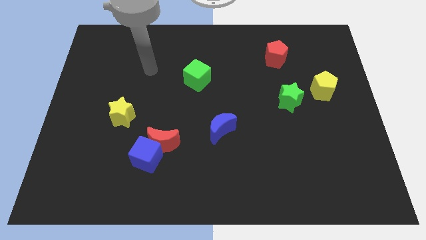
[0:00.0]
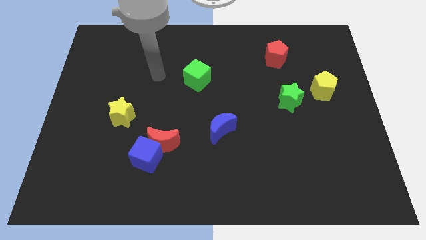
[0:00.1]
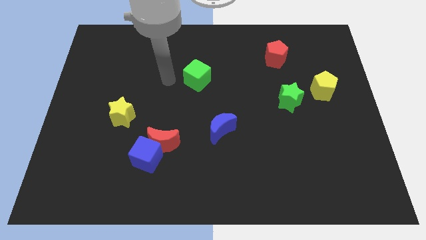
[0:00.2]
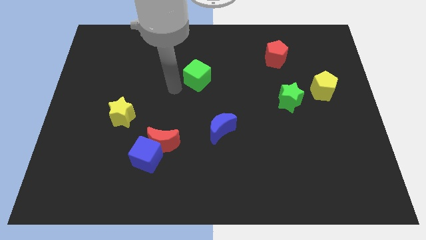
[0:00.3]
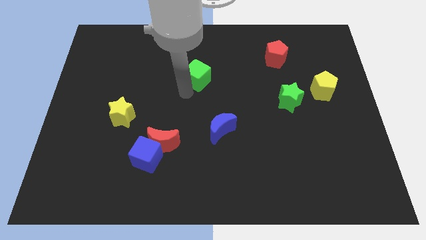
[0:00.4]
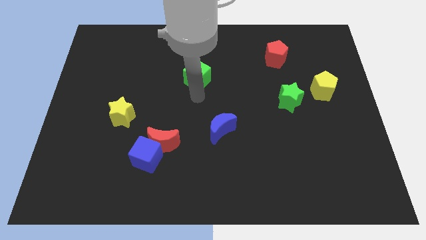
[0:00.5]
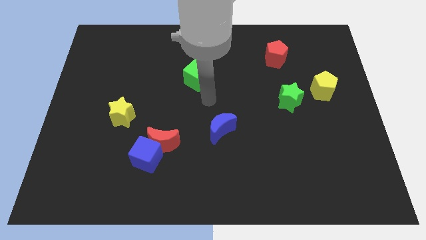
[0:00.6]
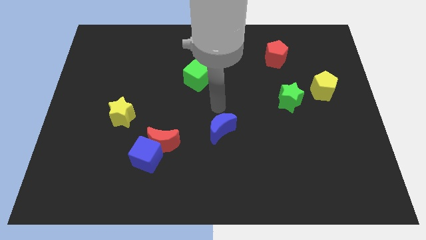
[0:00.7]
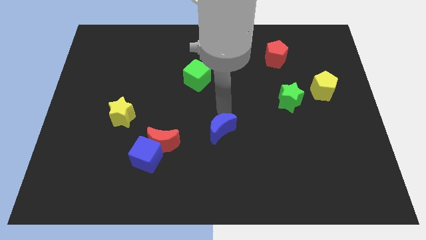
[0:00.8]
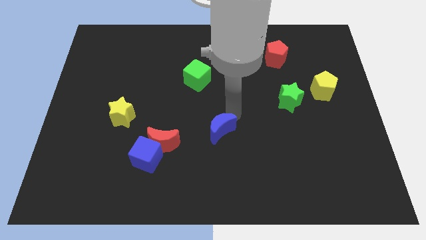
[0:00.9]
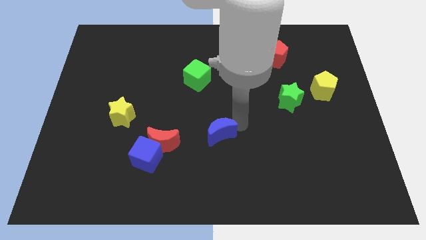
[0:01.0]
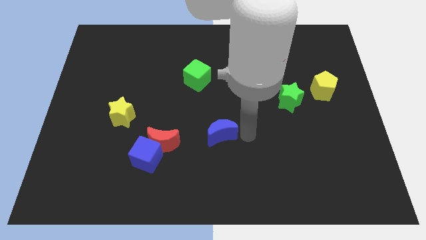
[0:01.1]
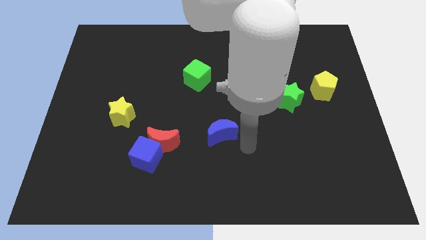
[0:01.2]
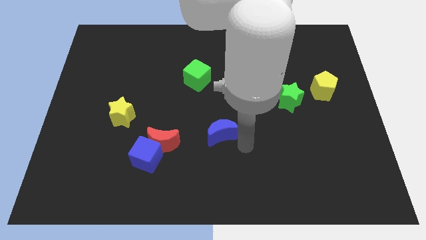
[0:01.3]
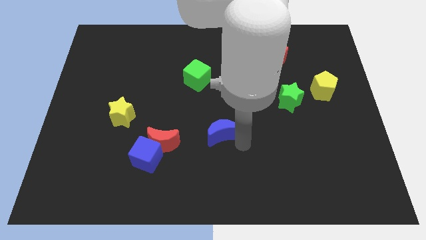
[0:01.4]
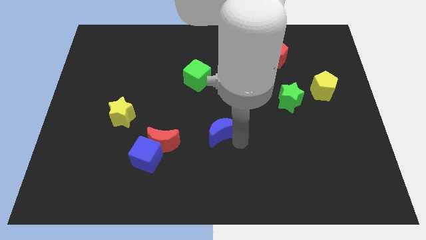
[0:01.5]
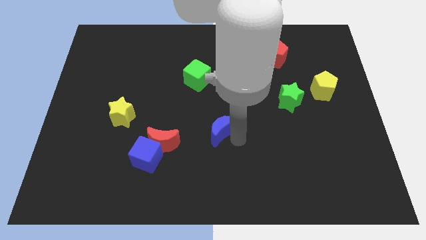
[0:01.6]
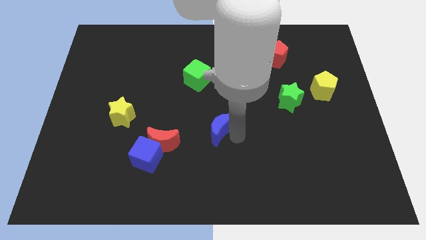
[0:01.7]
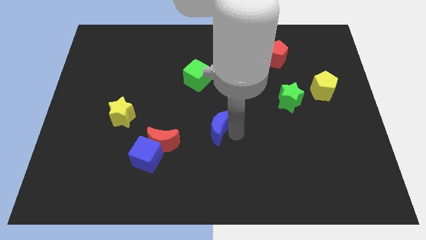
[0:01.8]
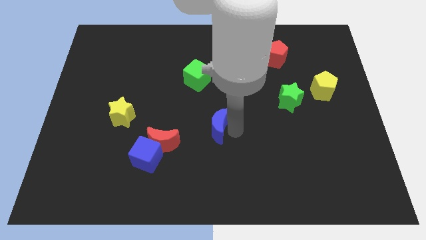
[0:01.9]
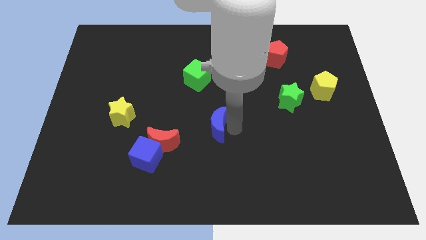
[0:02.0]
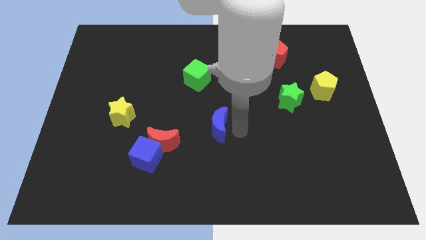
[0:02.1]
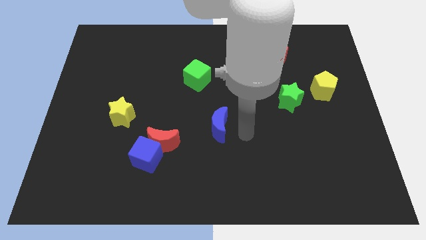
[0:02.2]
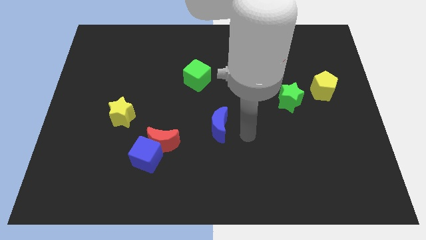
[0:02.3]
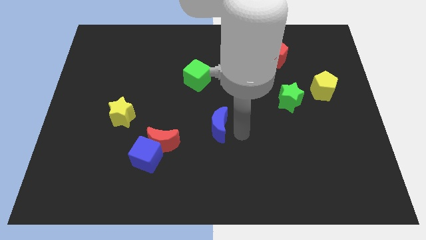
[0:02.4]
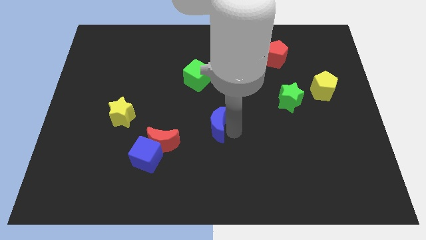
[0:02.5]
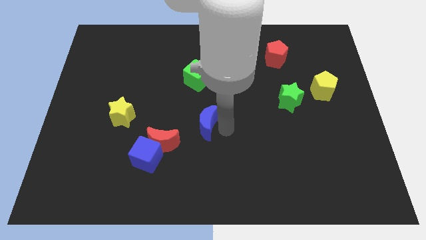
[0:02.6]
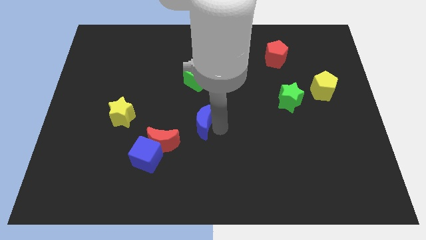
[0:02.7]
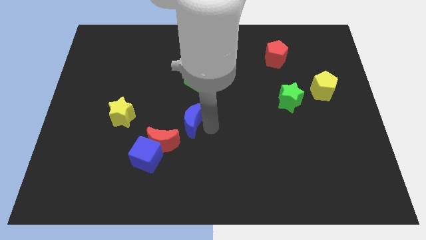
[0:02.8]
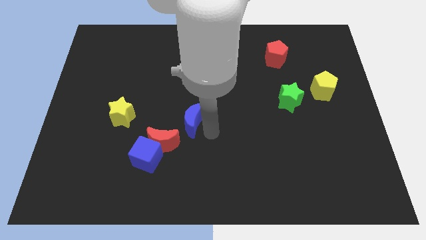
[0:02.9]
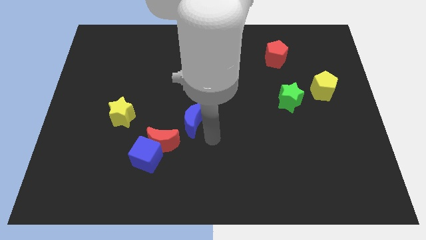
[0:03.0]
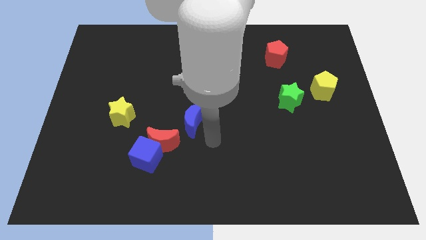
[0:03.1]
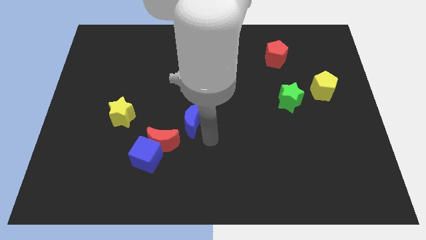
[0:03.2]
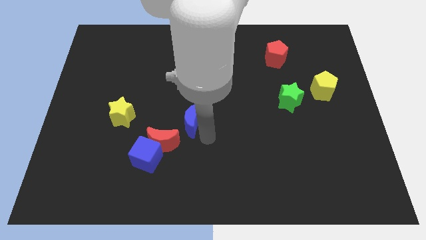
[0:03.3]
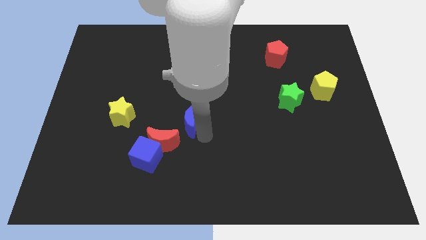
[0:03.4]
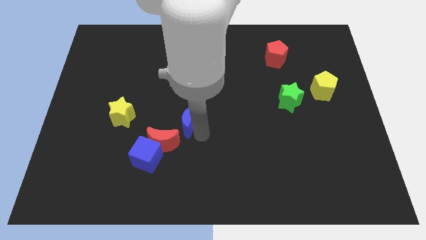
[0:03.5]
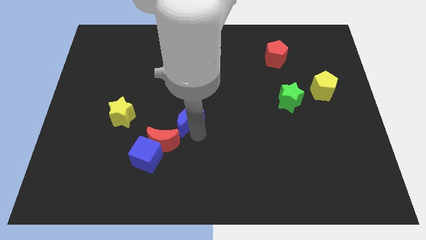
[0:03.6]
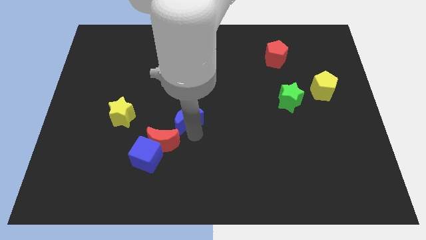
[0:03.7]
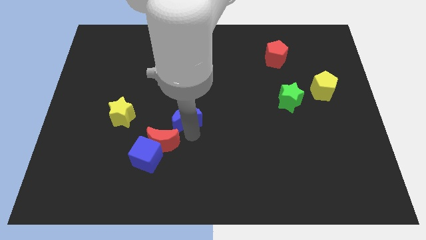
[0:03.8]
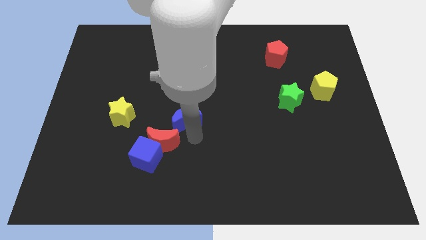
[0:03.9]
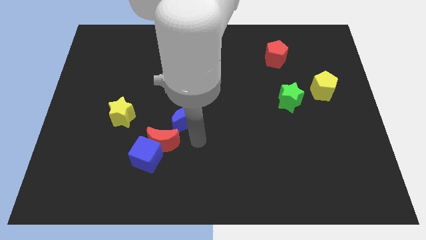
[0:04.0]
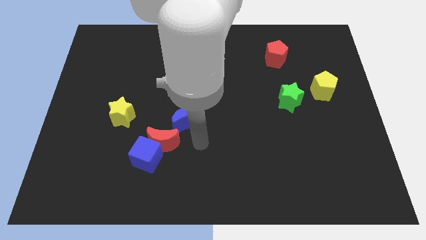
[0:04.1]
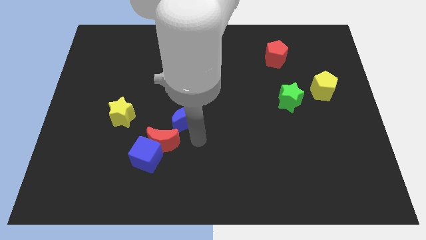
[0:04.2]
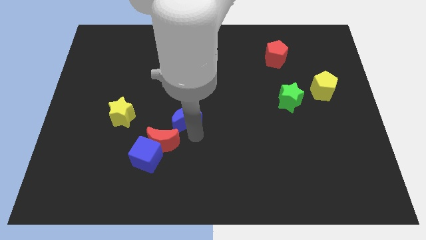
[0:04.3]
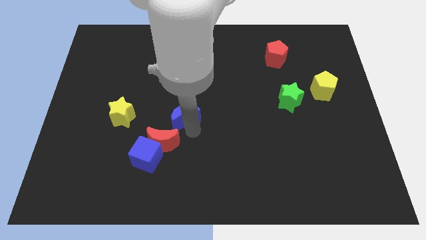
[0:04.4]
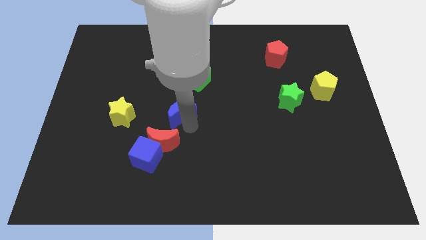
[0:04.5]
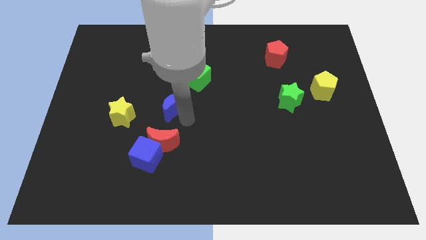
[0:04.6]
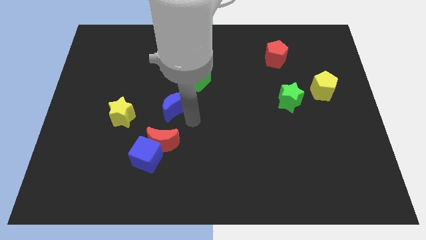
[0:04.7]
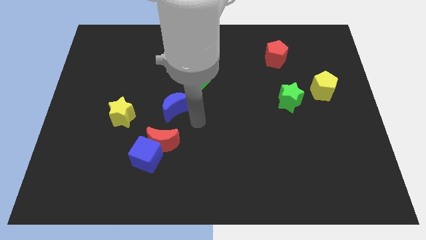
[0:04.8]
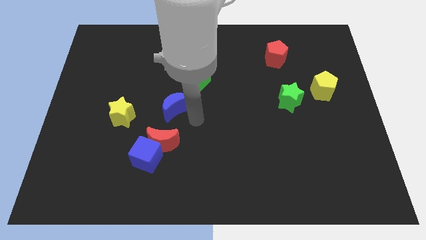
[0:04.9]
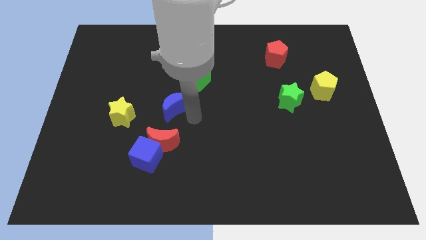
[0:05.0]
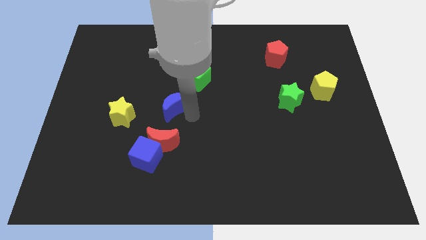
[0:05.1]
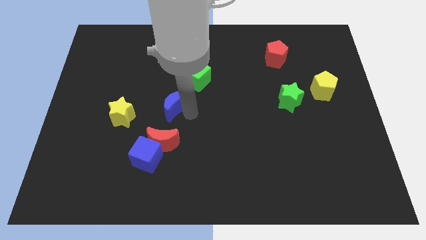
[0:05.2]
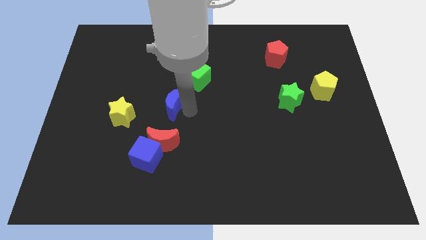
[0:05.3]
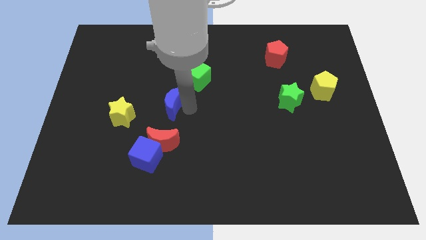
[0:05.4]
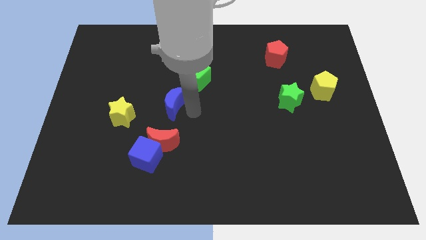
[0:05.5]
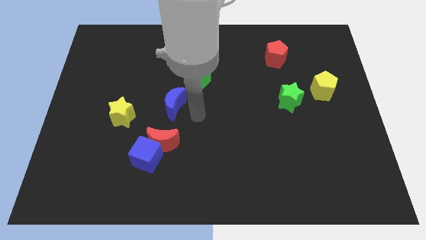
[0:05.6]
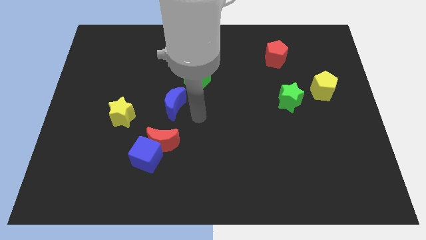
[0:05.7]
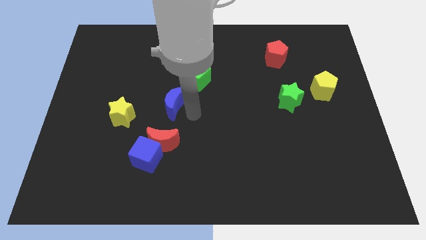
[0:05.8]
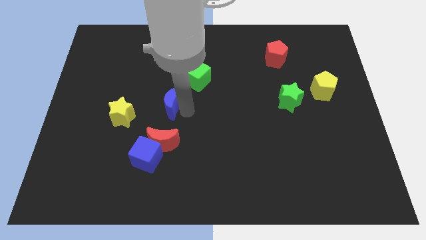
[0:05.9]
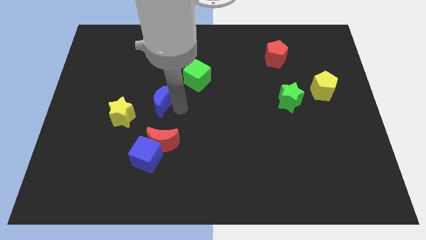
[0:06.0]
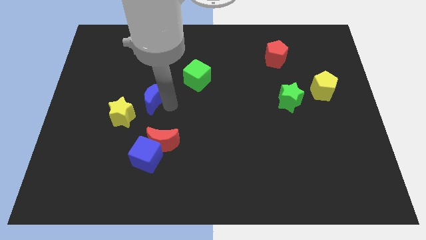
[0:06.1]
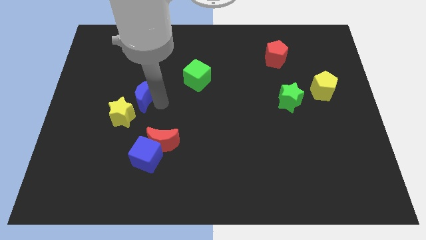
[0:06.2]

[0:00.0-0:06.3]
push the blue moon above the yellow star

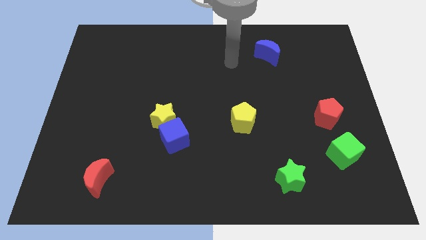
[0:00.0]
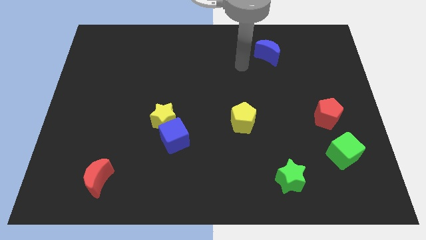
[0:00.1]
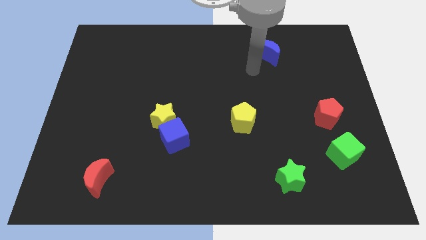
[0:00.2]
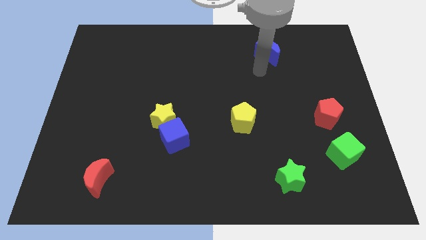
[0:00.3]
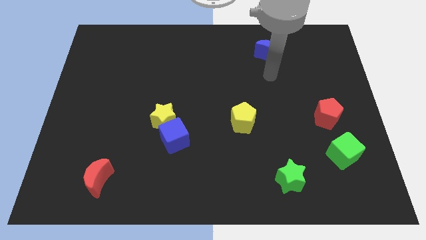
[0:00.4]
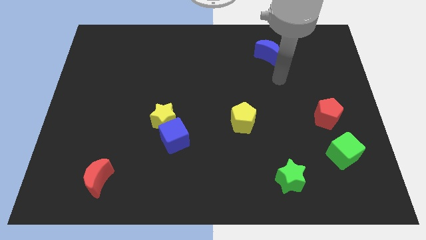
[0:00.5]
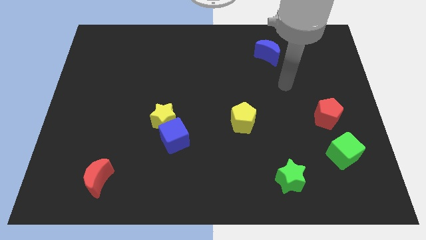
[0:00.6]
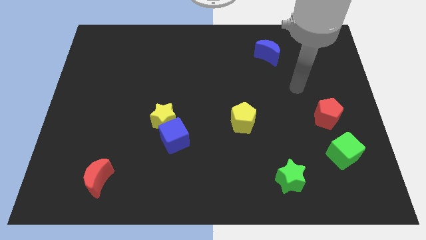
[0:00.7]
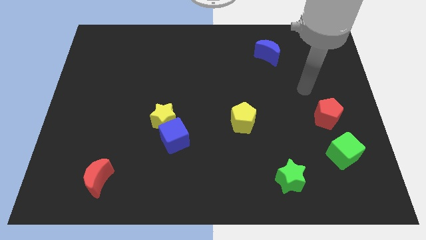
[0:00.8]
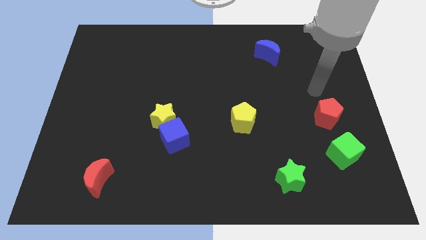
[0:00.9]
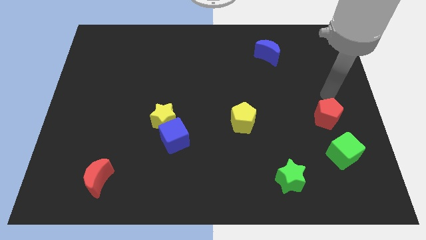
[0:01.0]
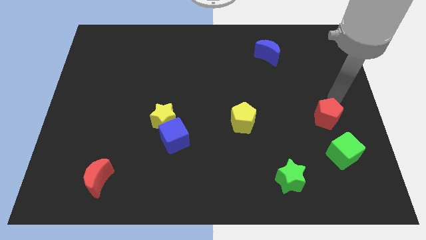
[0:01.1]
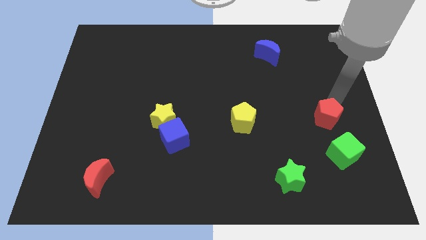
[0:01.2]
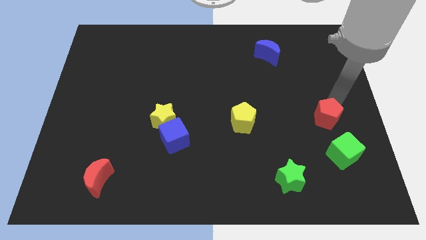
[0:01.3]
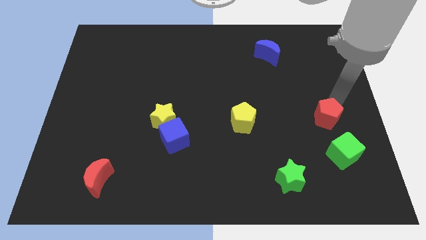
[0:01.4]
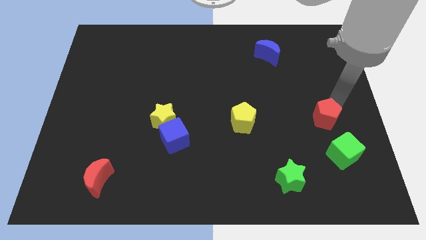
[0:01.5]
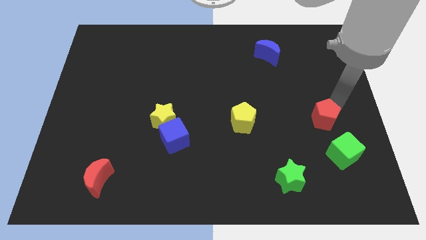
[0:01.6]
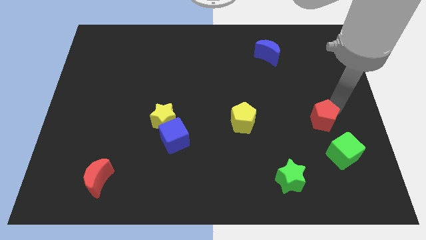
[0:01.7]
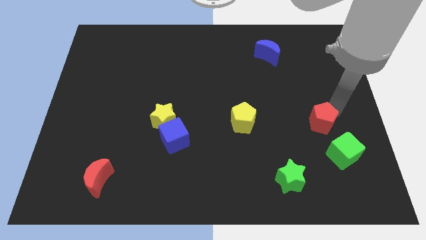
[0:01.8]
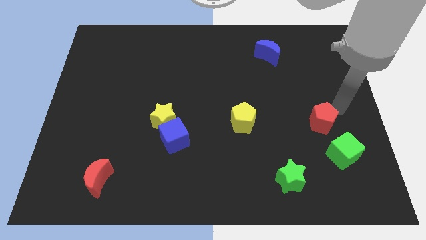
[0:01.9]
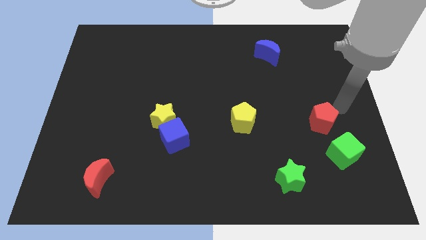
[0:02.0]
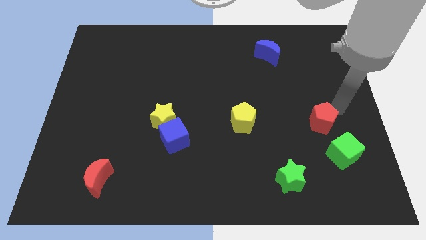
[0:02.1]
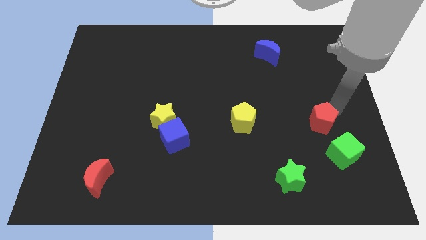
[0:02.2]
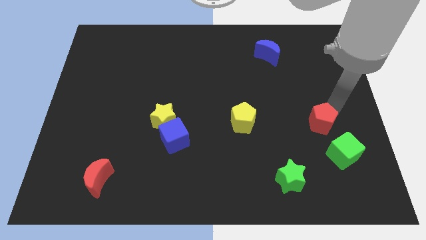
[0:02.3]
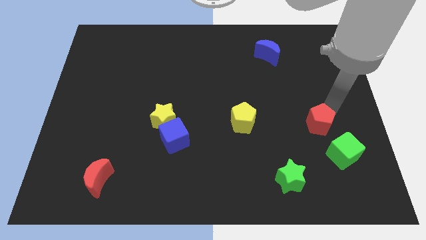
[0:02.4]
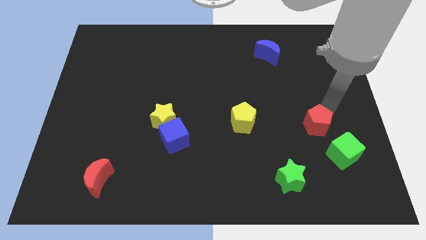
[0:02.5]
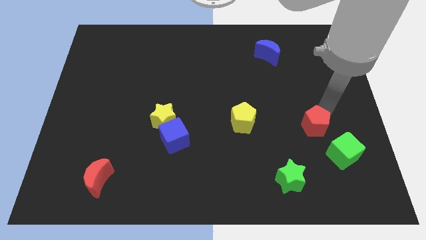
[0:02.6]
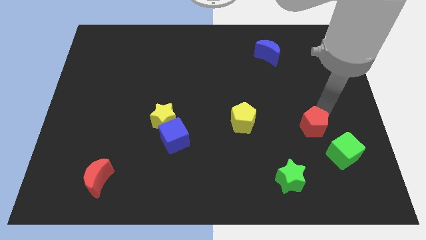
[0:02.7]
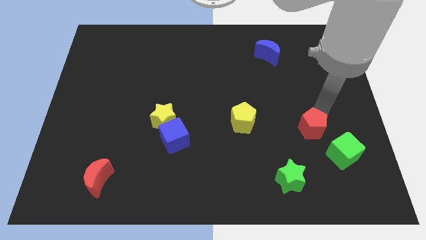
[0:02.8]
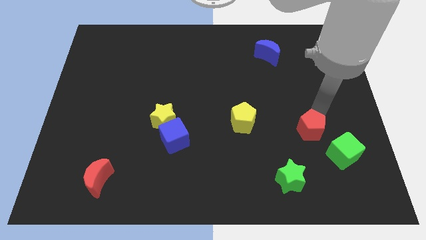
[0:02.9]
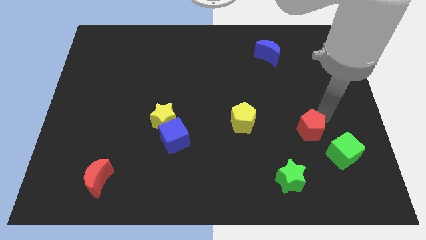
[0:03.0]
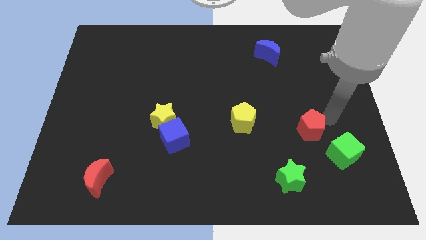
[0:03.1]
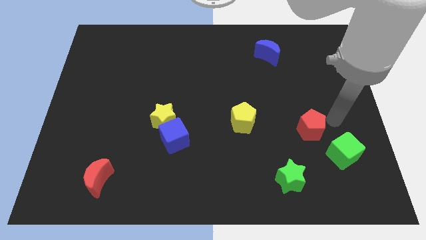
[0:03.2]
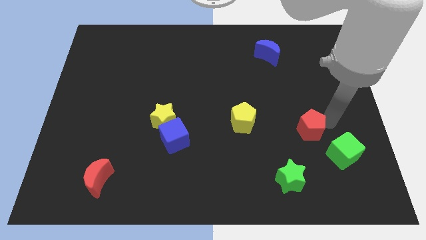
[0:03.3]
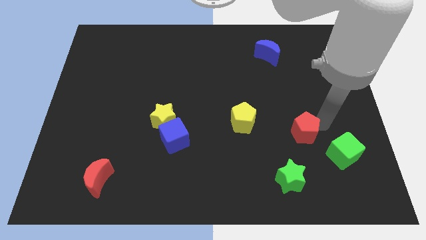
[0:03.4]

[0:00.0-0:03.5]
push the red pentagon to the top side of the green star
